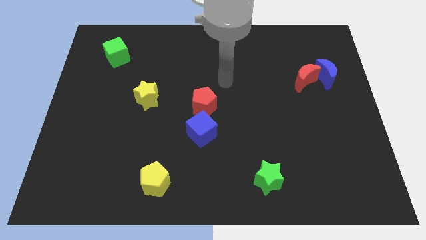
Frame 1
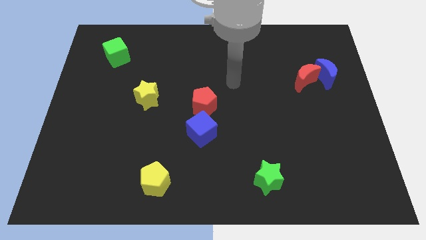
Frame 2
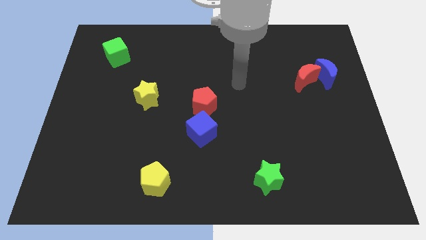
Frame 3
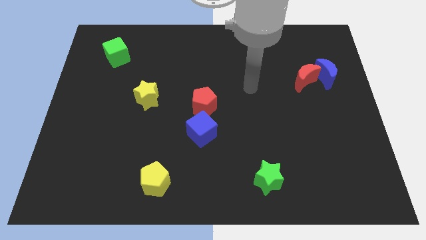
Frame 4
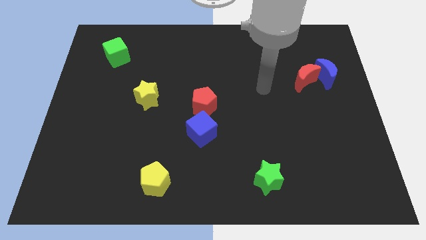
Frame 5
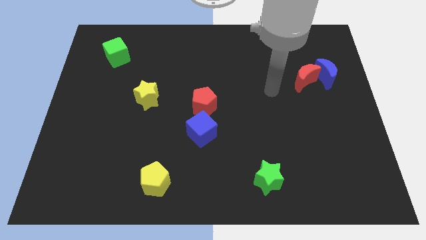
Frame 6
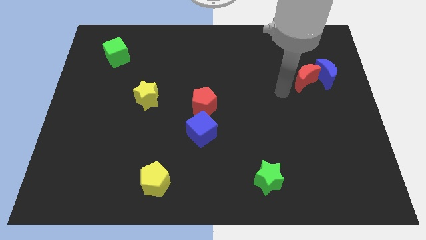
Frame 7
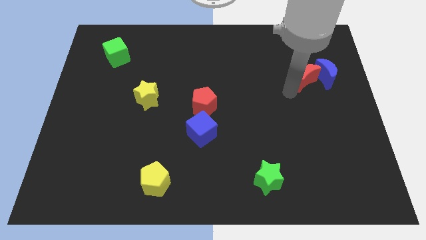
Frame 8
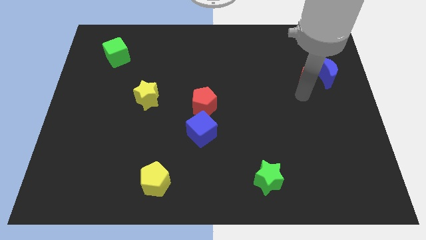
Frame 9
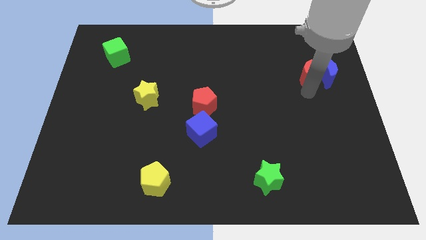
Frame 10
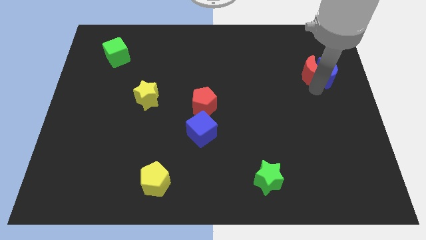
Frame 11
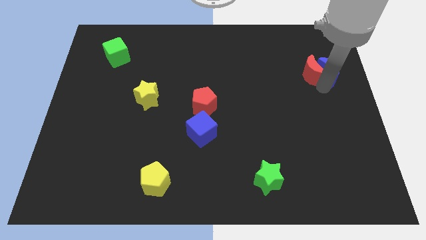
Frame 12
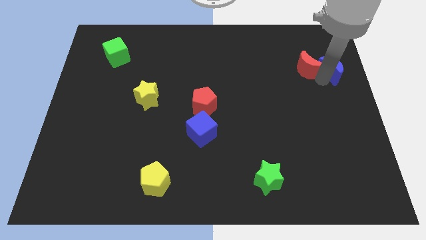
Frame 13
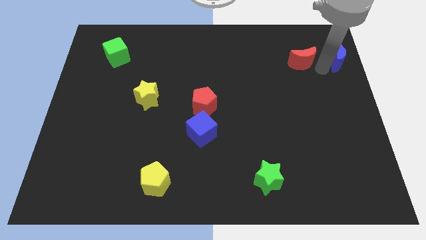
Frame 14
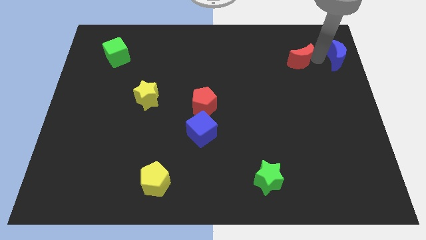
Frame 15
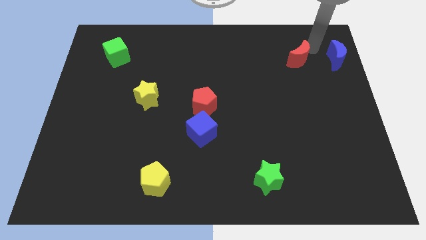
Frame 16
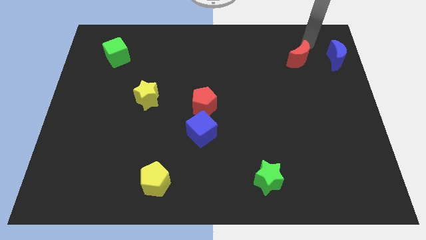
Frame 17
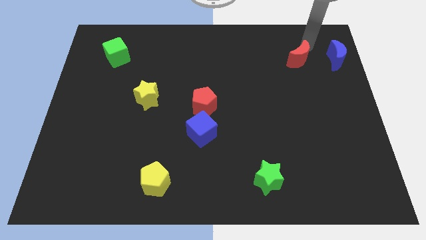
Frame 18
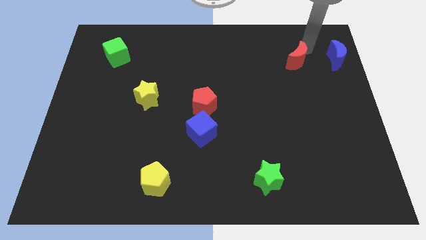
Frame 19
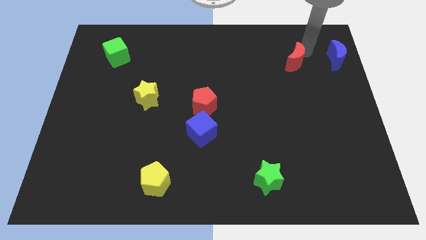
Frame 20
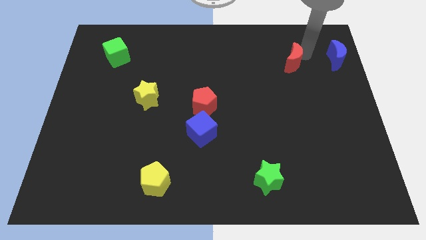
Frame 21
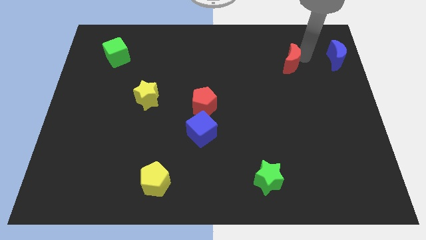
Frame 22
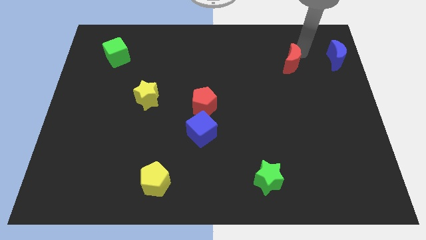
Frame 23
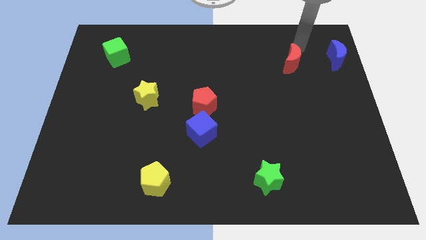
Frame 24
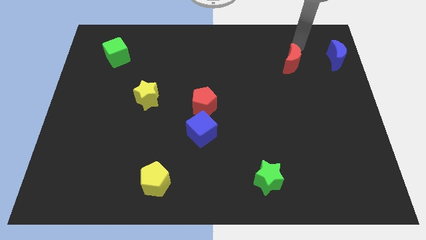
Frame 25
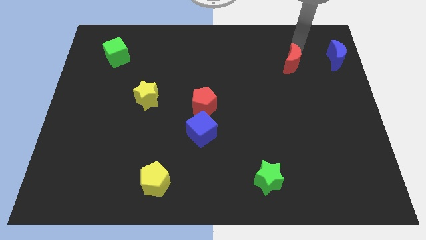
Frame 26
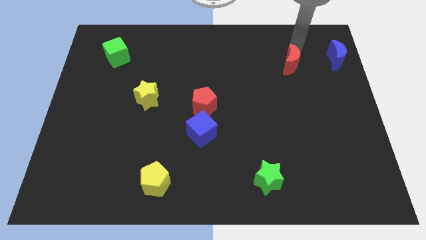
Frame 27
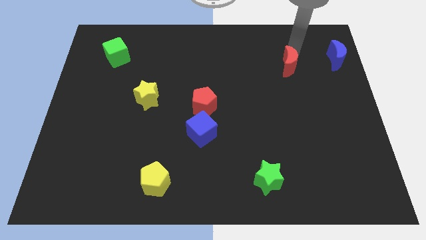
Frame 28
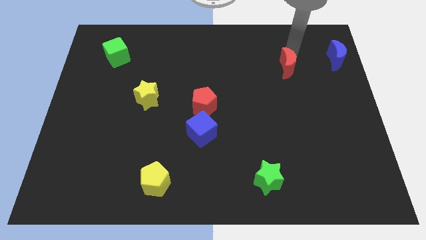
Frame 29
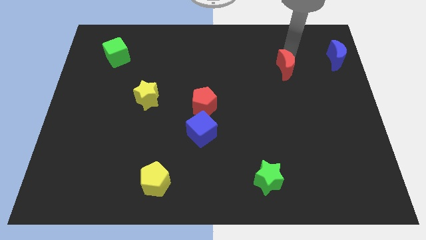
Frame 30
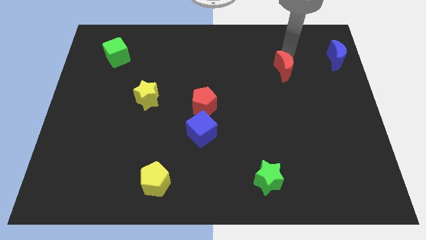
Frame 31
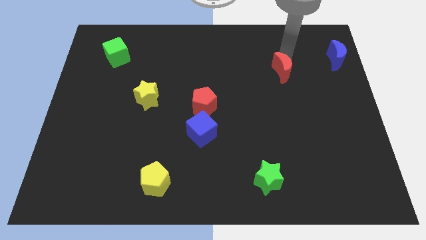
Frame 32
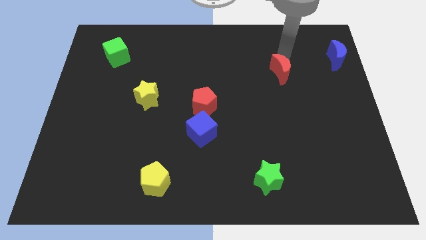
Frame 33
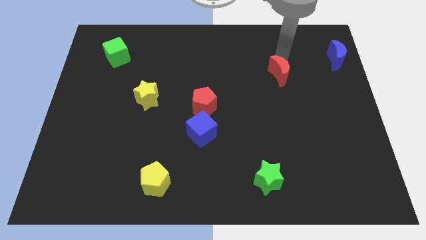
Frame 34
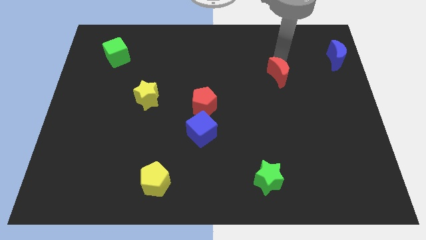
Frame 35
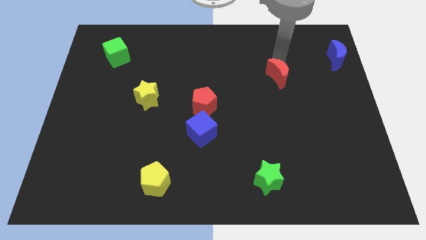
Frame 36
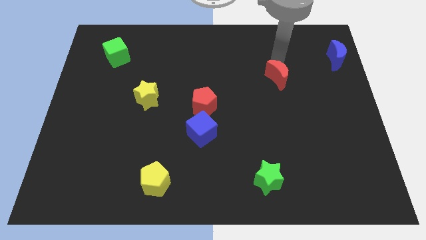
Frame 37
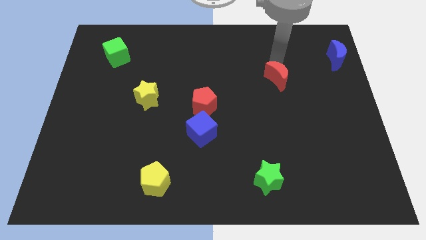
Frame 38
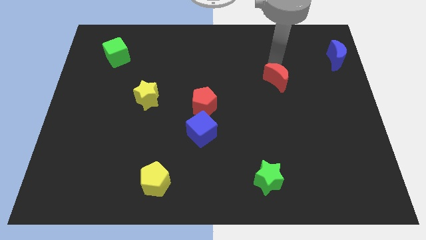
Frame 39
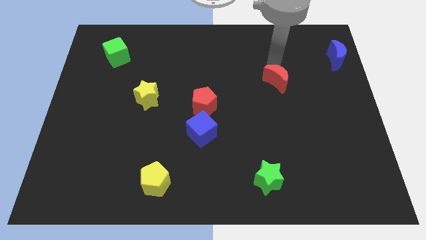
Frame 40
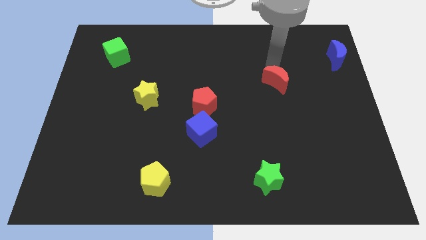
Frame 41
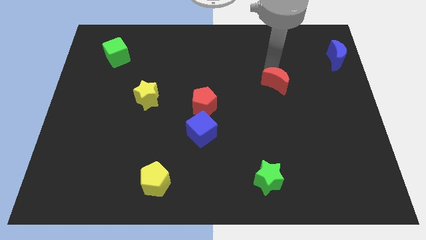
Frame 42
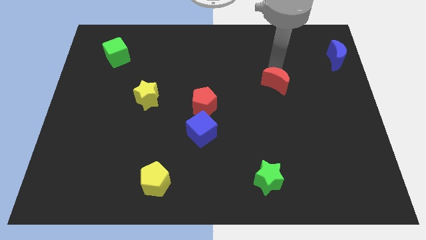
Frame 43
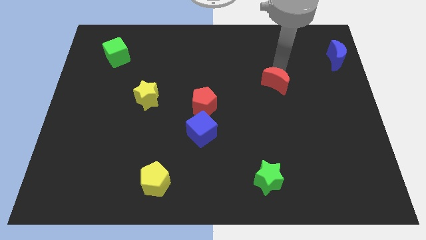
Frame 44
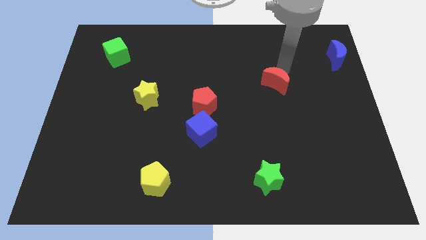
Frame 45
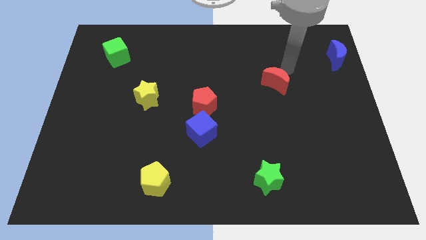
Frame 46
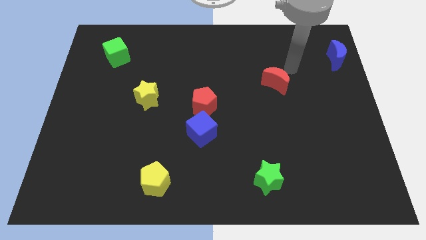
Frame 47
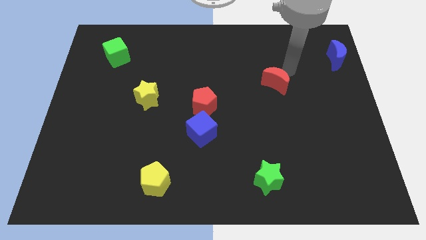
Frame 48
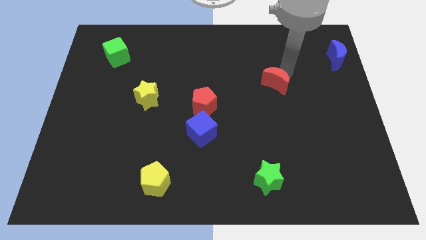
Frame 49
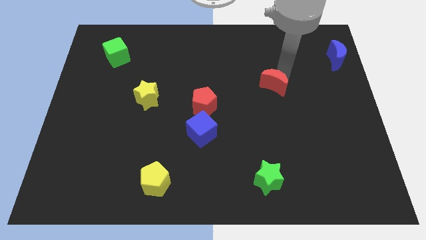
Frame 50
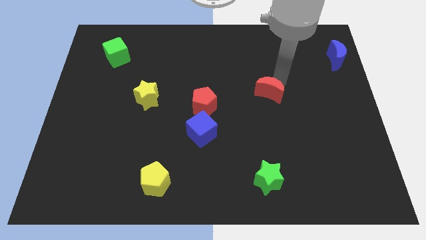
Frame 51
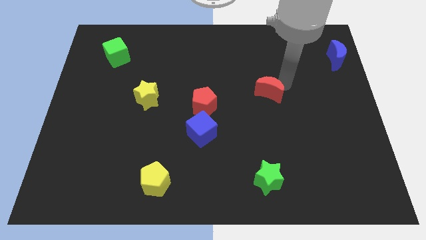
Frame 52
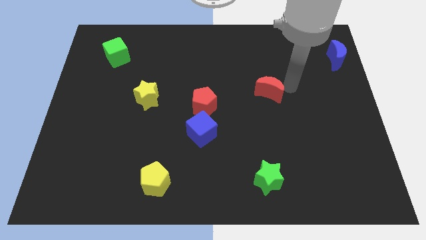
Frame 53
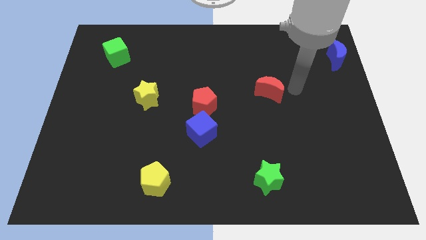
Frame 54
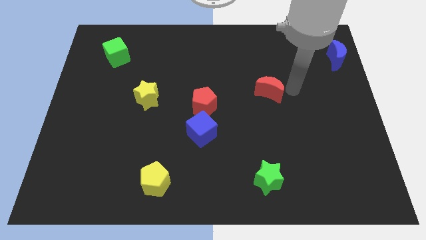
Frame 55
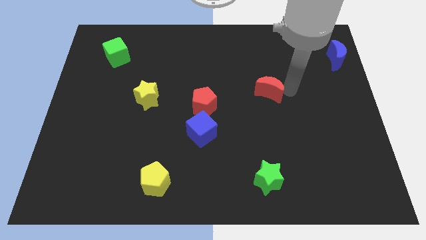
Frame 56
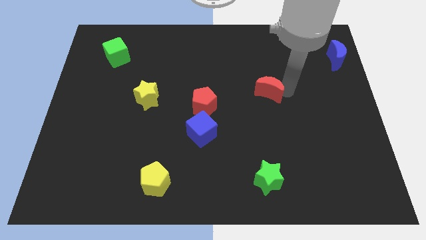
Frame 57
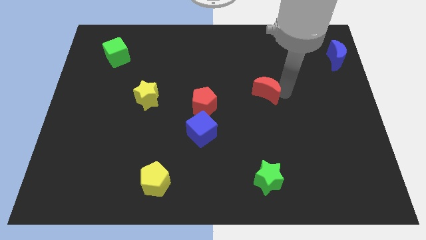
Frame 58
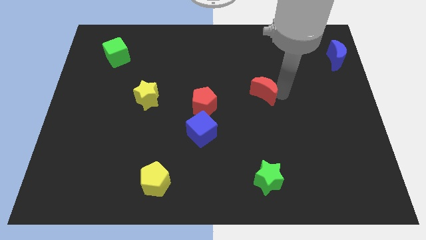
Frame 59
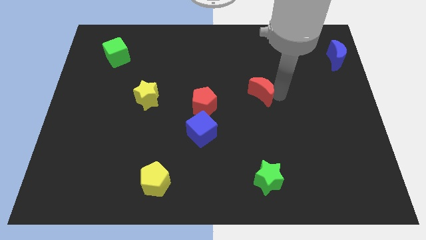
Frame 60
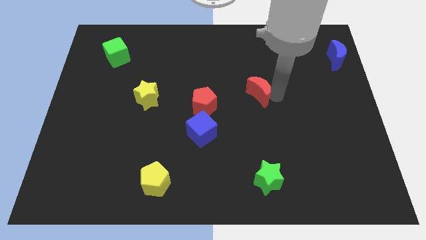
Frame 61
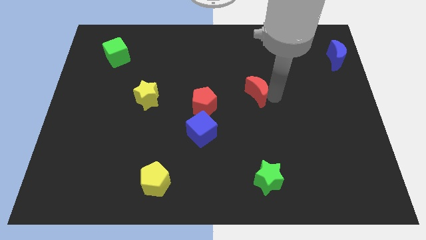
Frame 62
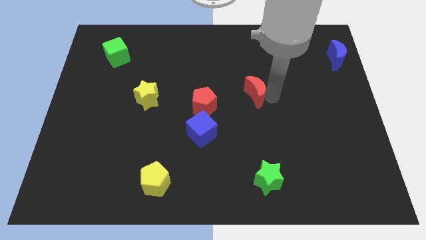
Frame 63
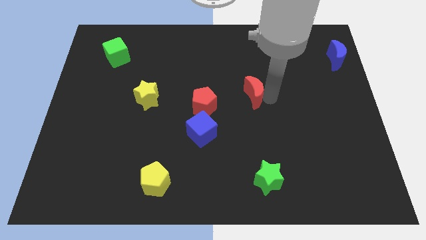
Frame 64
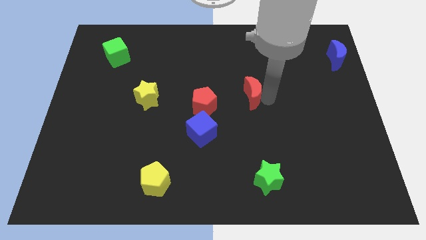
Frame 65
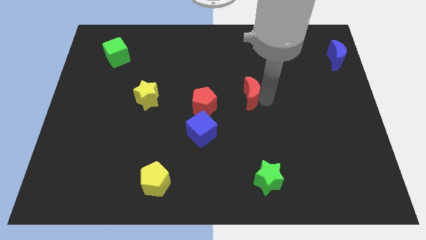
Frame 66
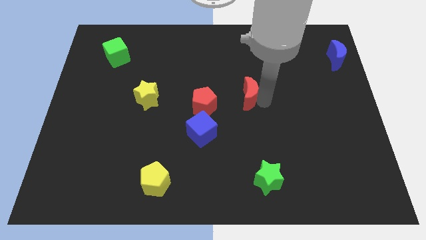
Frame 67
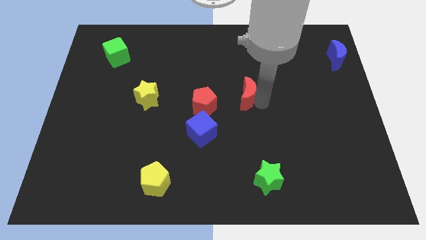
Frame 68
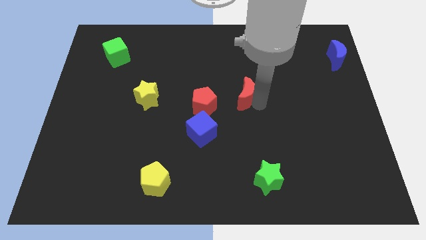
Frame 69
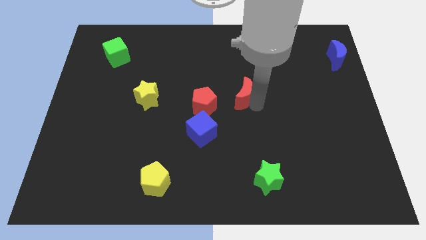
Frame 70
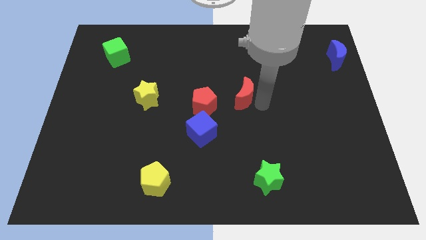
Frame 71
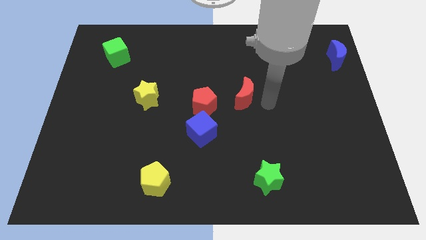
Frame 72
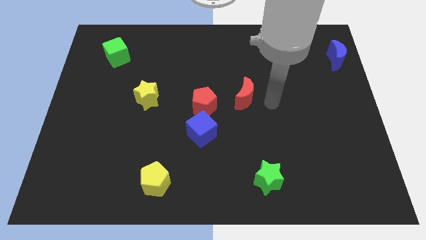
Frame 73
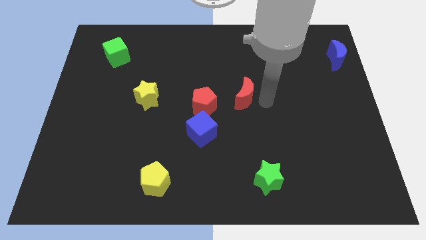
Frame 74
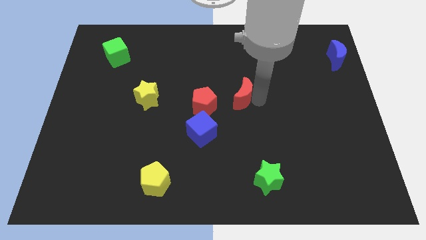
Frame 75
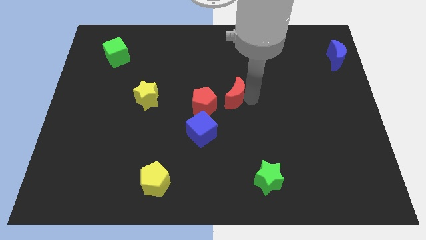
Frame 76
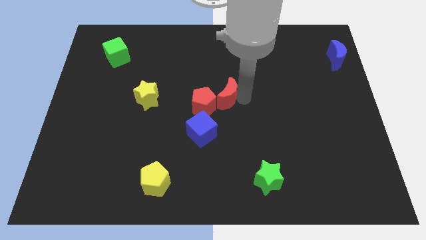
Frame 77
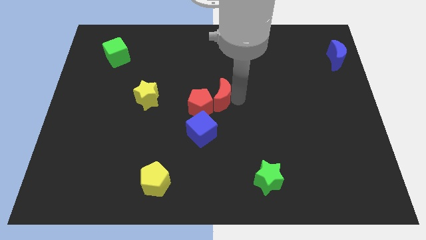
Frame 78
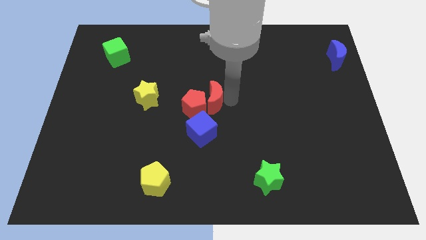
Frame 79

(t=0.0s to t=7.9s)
push the red moon to the left
